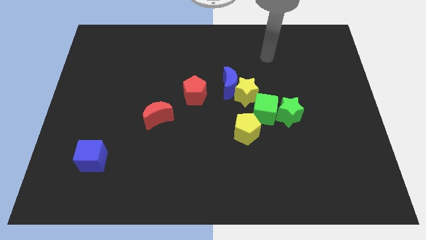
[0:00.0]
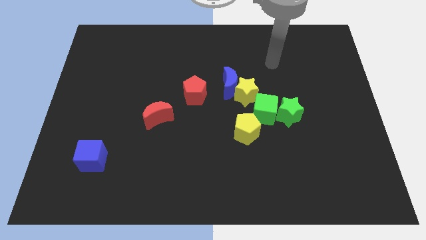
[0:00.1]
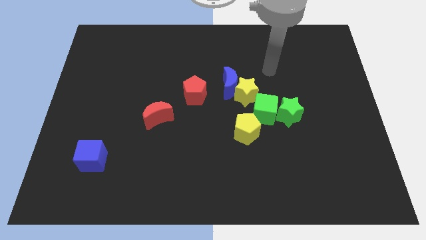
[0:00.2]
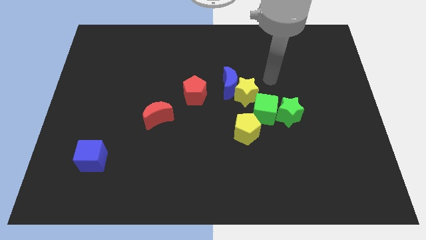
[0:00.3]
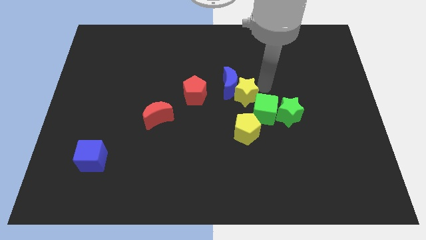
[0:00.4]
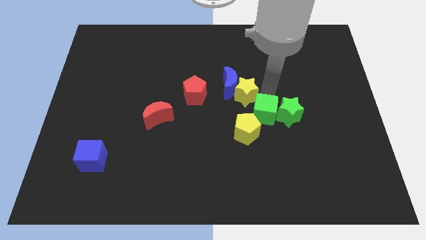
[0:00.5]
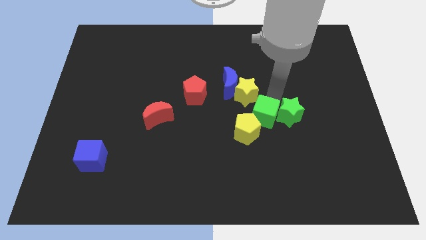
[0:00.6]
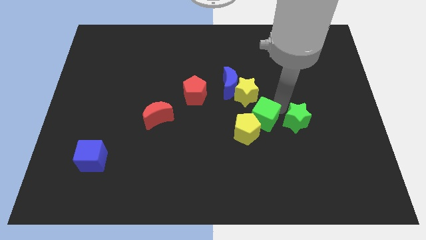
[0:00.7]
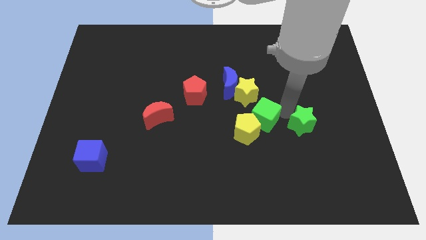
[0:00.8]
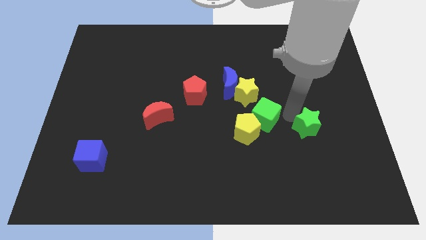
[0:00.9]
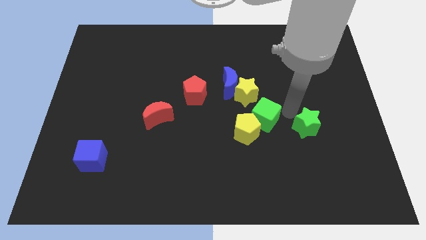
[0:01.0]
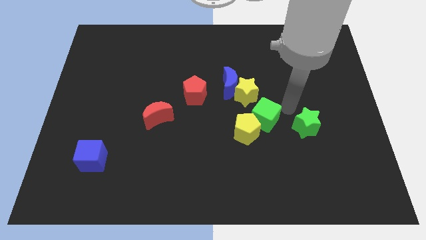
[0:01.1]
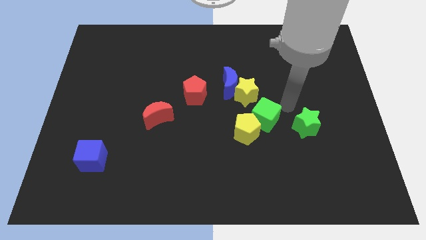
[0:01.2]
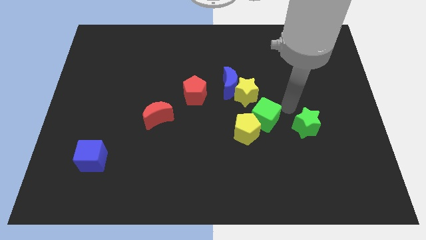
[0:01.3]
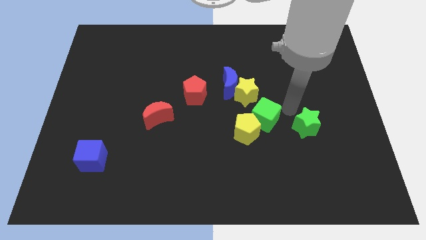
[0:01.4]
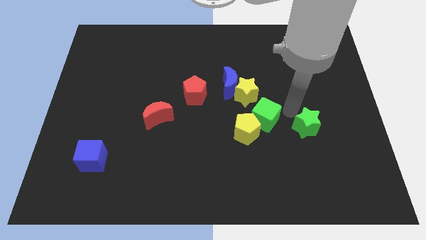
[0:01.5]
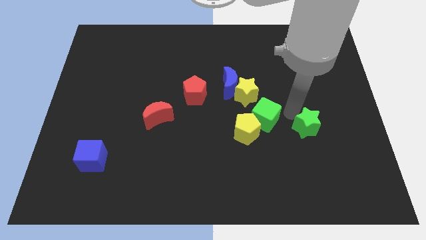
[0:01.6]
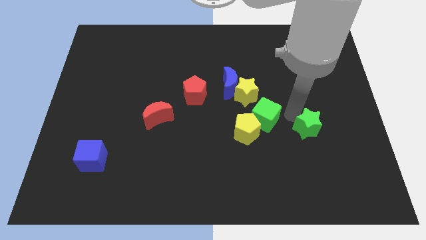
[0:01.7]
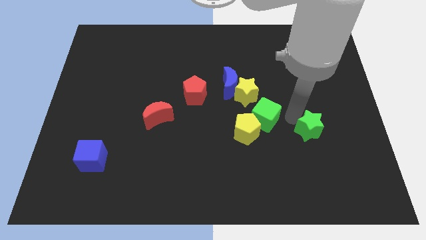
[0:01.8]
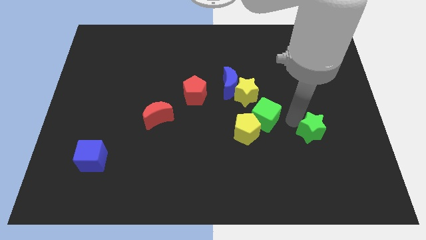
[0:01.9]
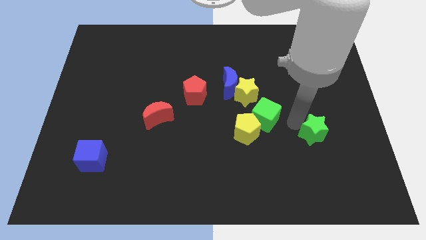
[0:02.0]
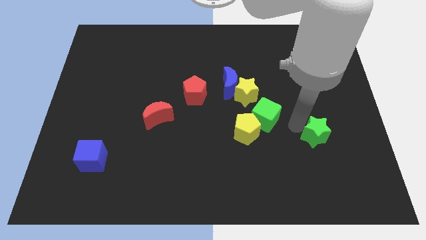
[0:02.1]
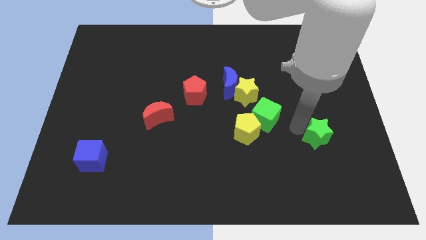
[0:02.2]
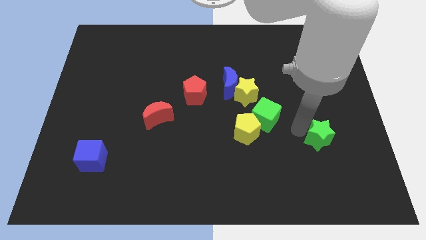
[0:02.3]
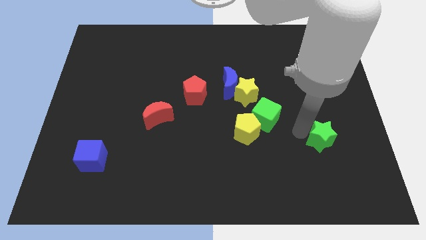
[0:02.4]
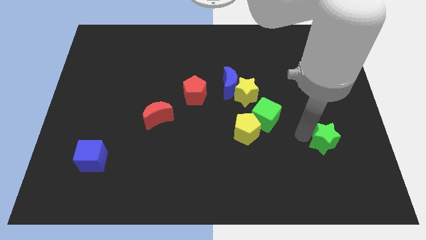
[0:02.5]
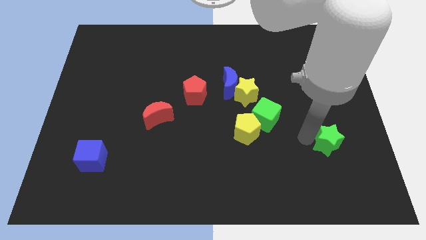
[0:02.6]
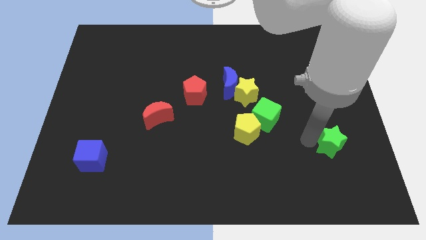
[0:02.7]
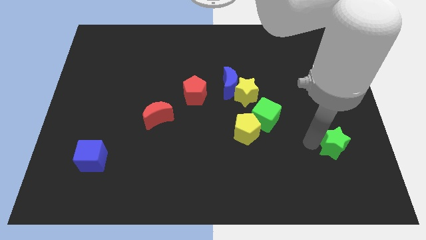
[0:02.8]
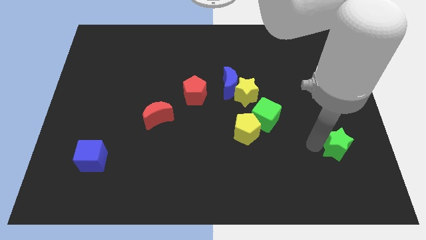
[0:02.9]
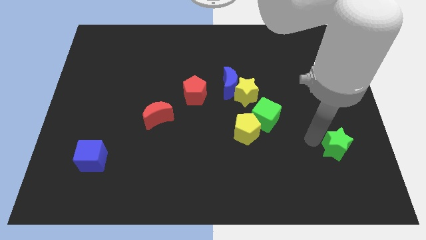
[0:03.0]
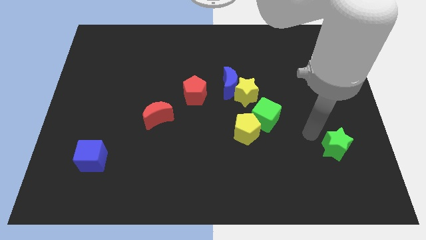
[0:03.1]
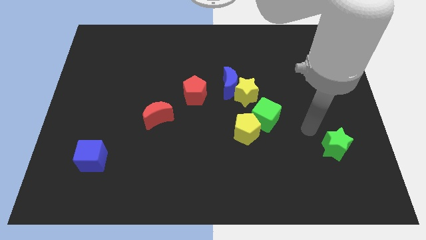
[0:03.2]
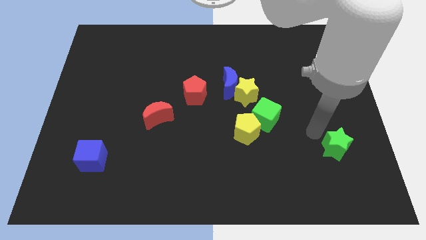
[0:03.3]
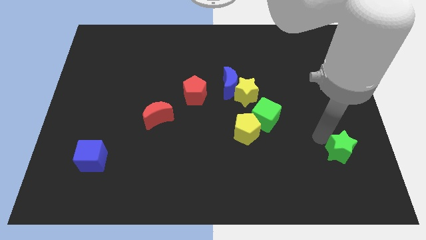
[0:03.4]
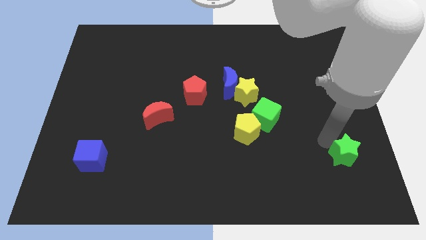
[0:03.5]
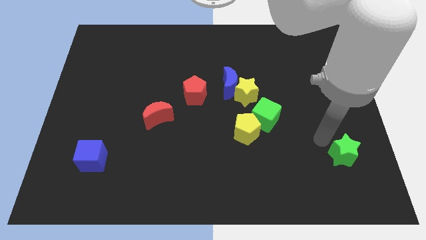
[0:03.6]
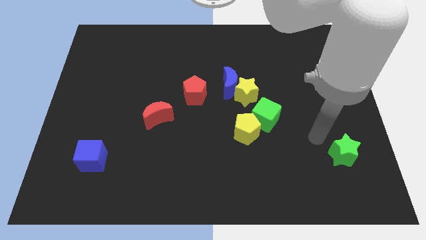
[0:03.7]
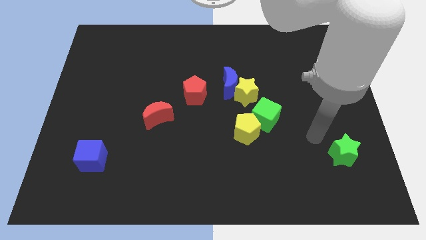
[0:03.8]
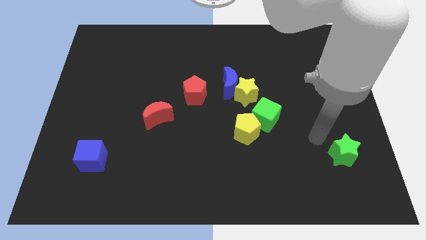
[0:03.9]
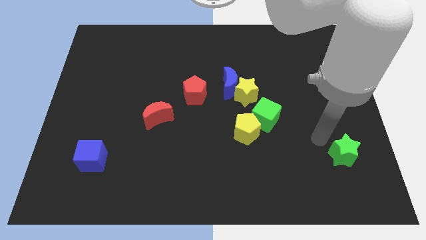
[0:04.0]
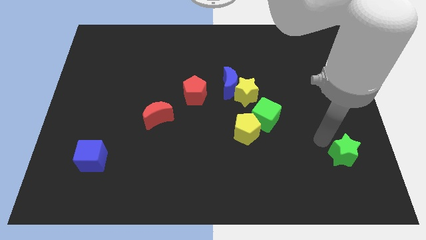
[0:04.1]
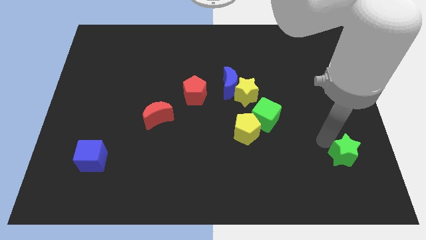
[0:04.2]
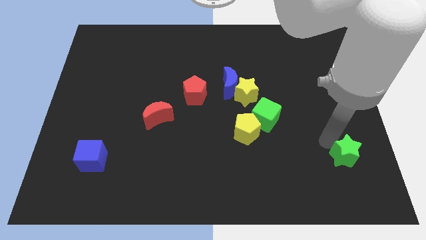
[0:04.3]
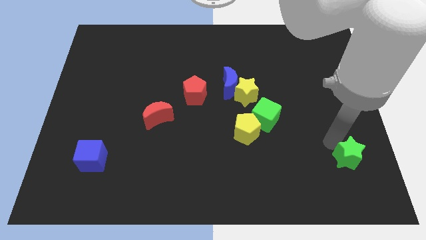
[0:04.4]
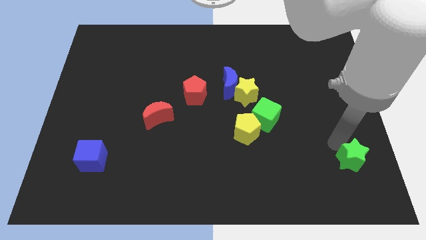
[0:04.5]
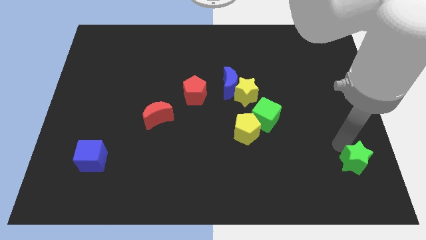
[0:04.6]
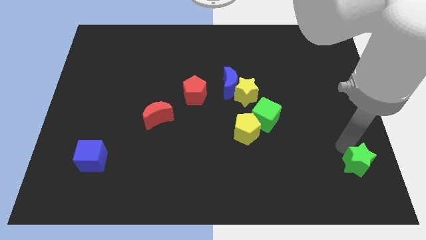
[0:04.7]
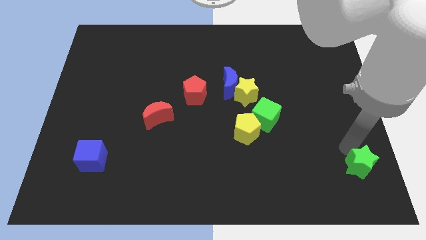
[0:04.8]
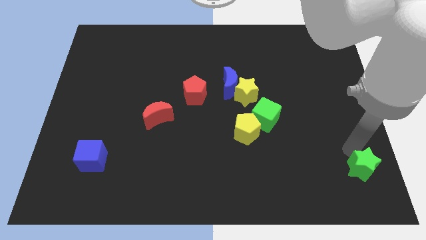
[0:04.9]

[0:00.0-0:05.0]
slide the green star to the bottom right
